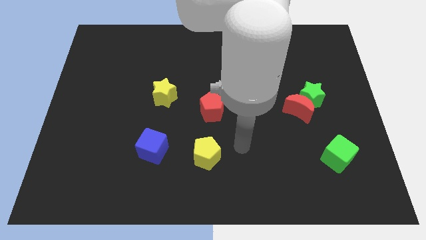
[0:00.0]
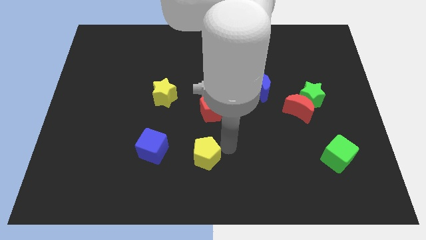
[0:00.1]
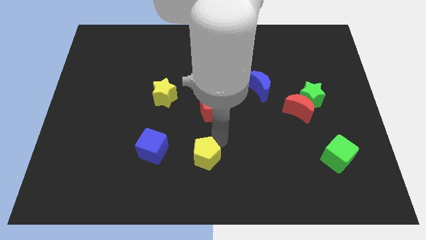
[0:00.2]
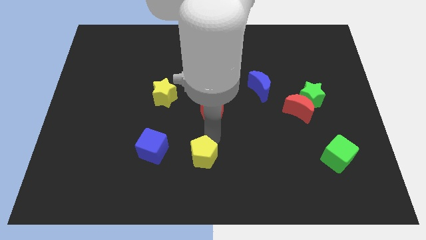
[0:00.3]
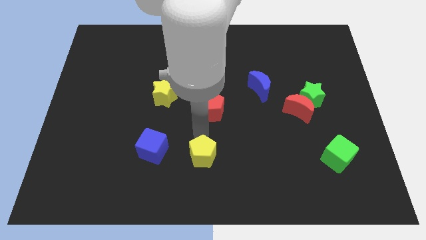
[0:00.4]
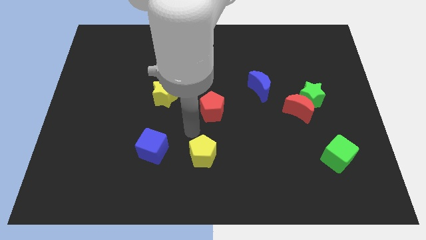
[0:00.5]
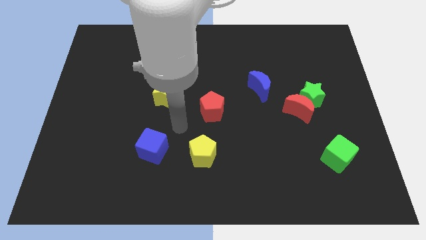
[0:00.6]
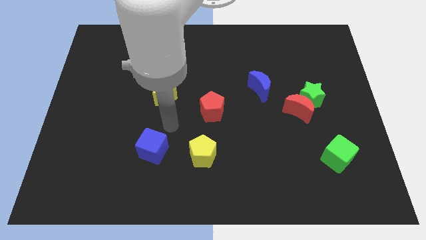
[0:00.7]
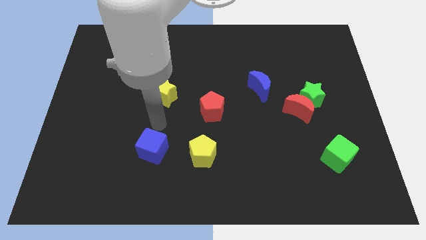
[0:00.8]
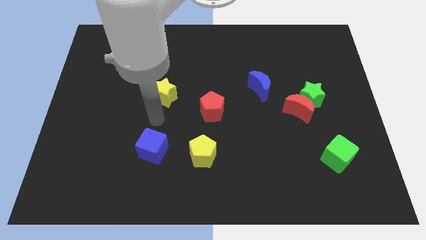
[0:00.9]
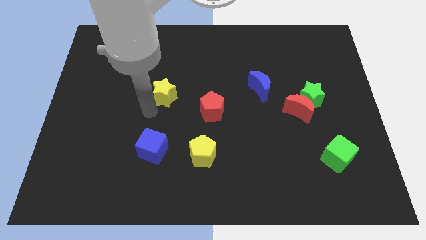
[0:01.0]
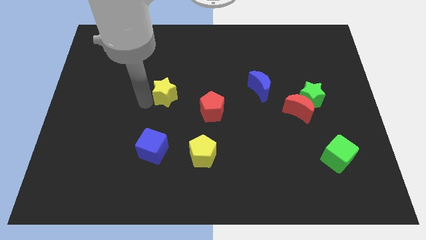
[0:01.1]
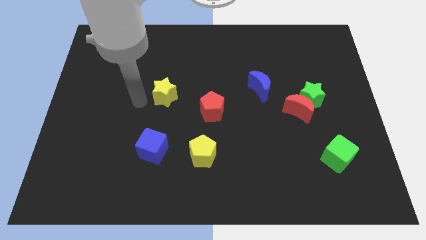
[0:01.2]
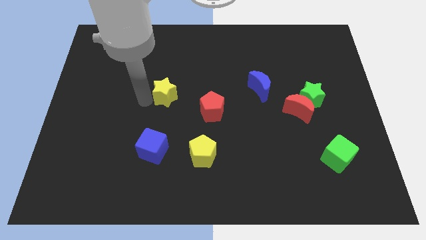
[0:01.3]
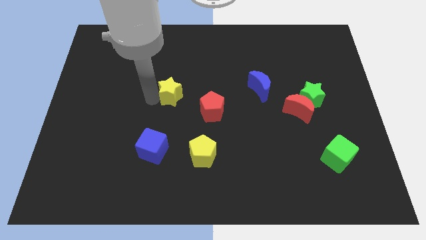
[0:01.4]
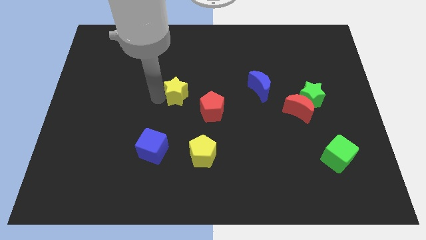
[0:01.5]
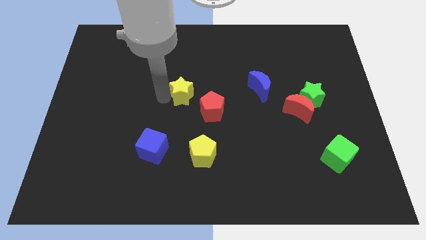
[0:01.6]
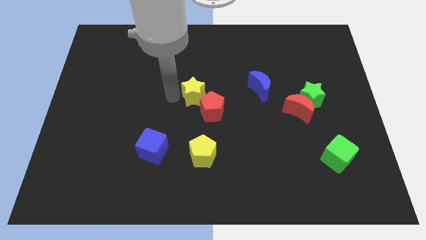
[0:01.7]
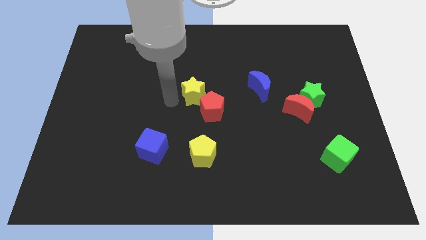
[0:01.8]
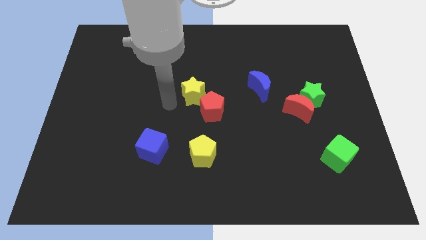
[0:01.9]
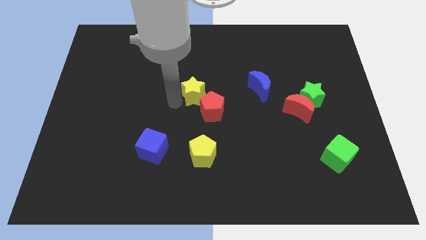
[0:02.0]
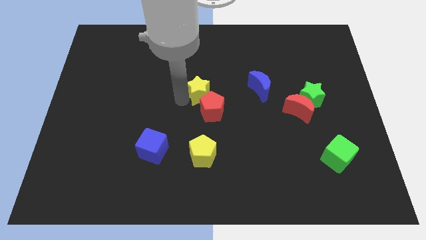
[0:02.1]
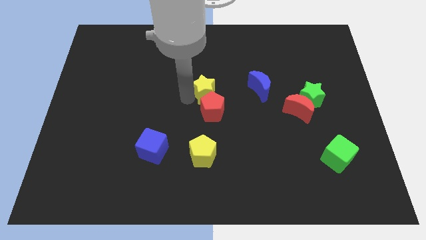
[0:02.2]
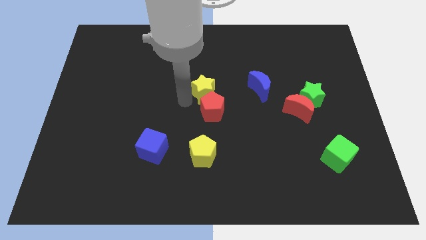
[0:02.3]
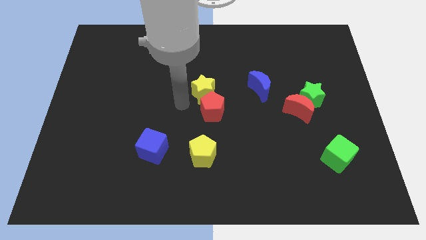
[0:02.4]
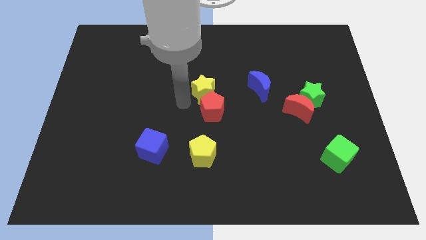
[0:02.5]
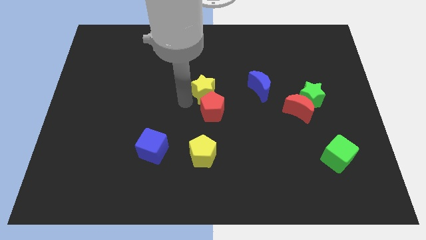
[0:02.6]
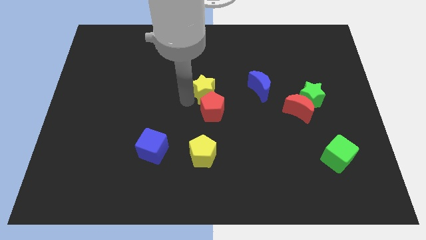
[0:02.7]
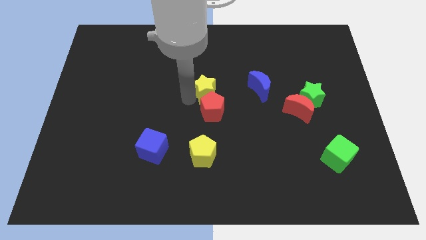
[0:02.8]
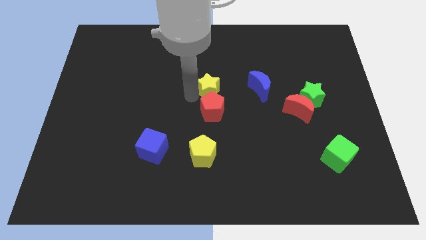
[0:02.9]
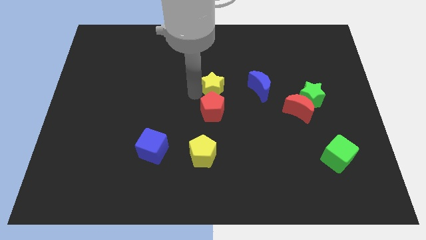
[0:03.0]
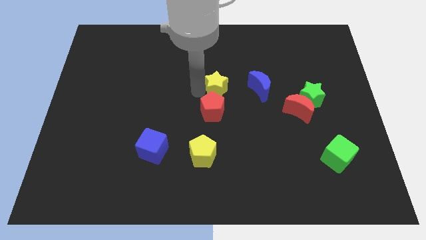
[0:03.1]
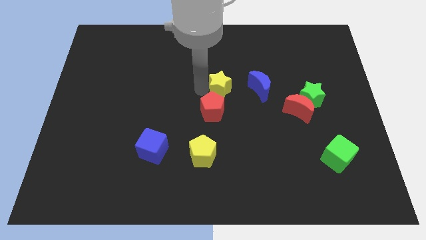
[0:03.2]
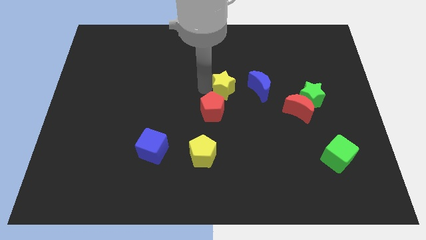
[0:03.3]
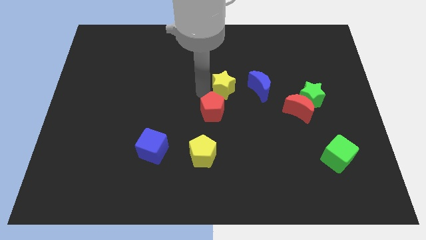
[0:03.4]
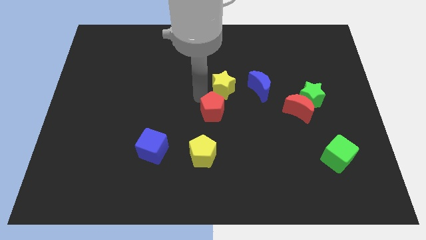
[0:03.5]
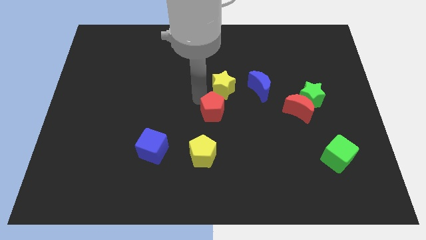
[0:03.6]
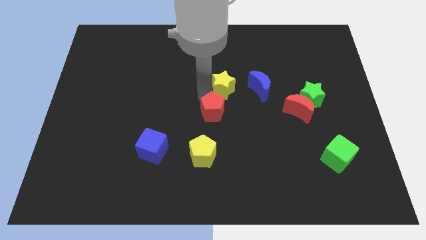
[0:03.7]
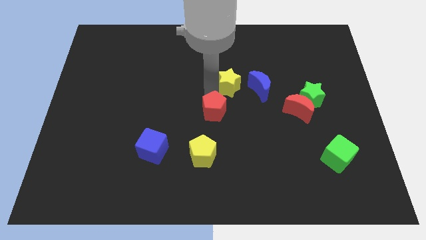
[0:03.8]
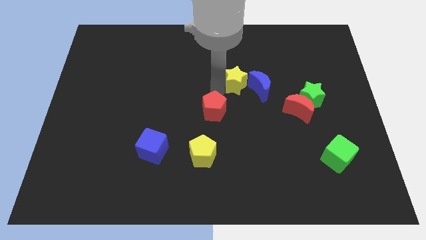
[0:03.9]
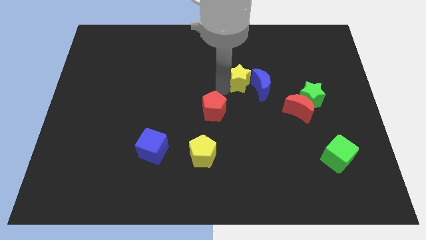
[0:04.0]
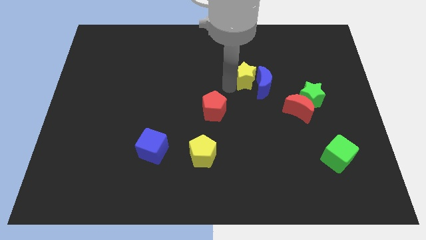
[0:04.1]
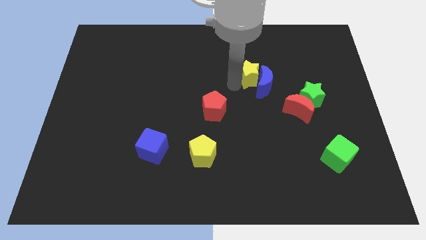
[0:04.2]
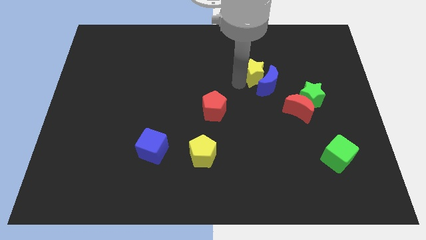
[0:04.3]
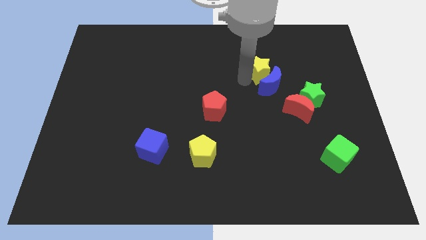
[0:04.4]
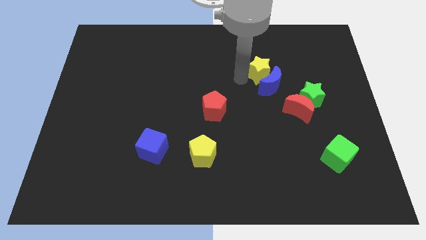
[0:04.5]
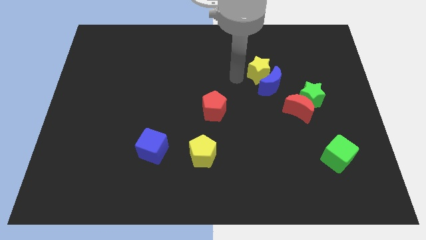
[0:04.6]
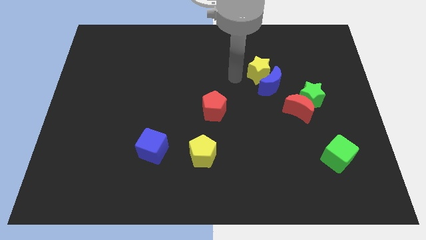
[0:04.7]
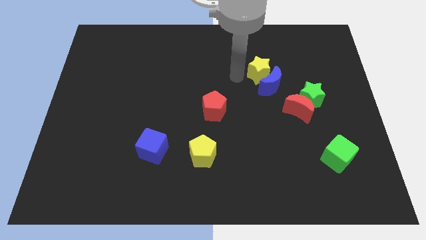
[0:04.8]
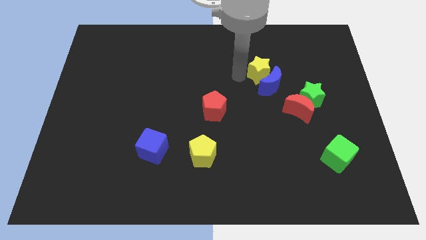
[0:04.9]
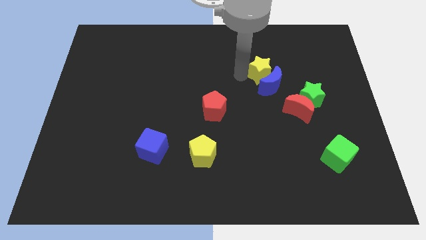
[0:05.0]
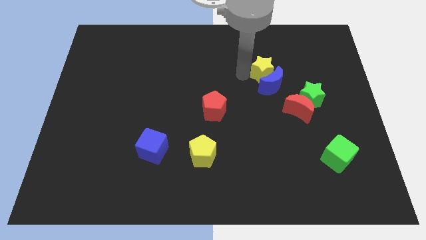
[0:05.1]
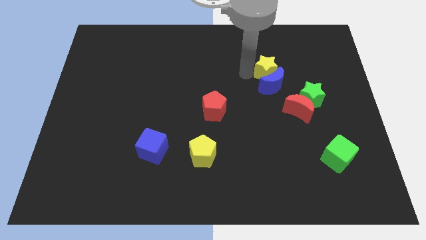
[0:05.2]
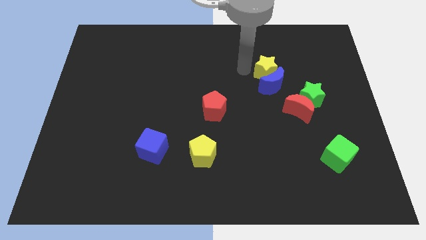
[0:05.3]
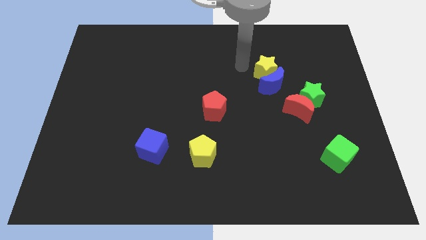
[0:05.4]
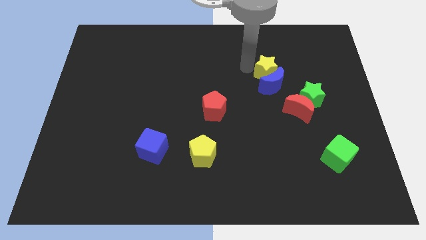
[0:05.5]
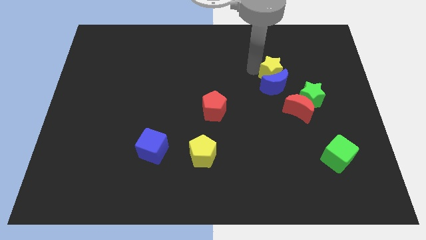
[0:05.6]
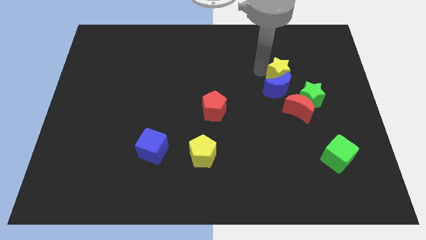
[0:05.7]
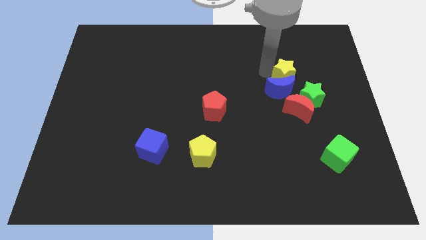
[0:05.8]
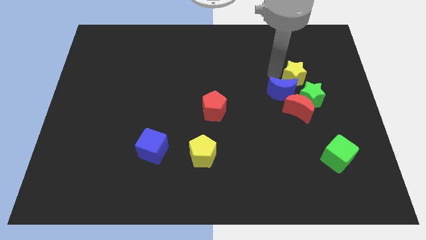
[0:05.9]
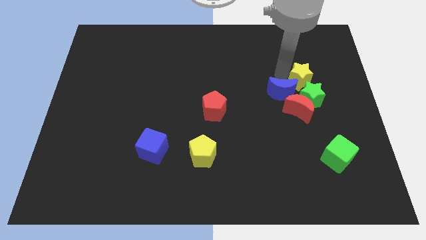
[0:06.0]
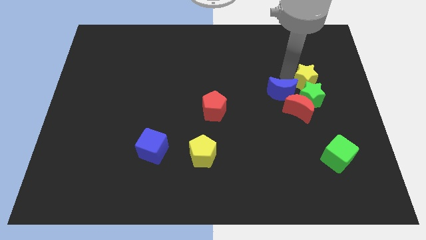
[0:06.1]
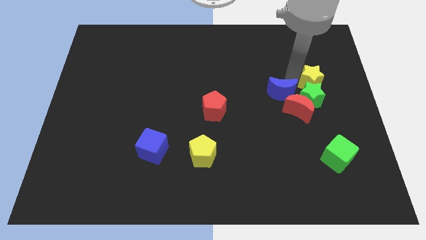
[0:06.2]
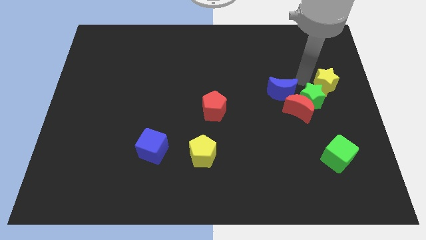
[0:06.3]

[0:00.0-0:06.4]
move the yellow star to the right side
